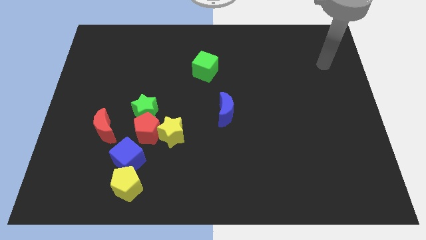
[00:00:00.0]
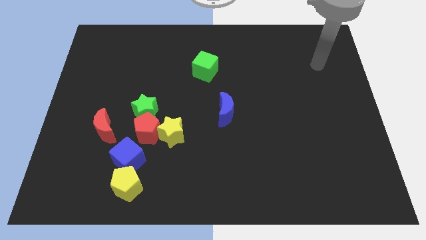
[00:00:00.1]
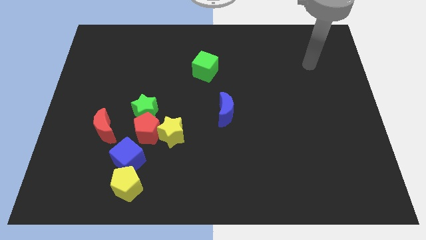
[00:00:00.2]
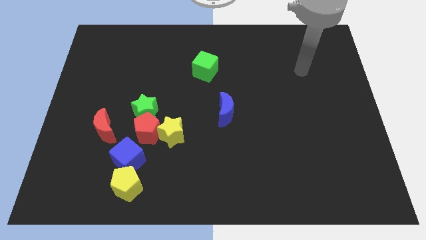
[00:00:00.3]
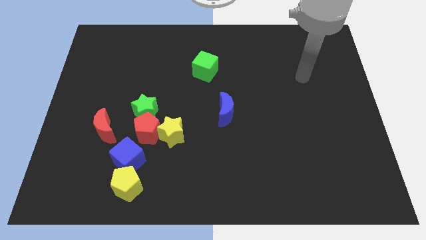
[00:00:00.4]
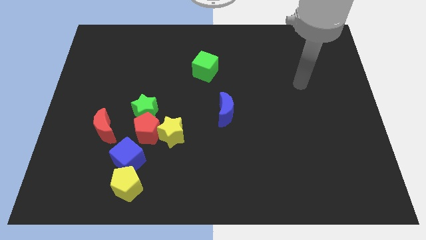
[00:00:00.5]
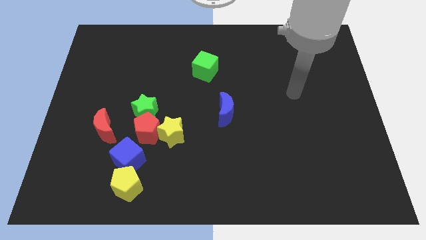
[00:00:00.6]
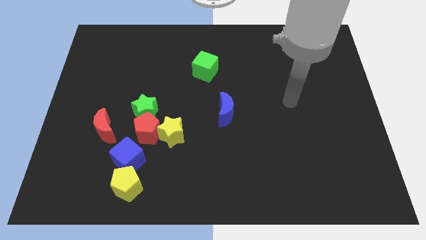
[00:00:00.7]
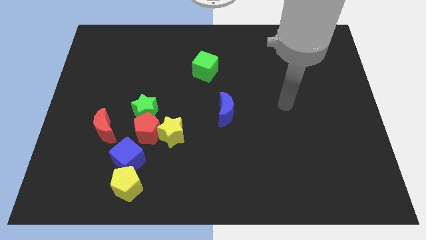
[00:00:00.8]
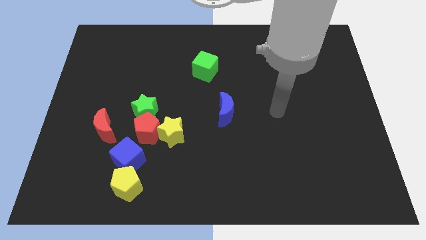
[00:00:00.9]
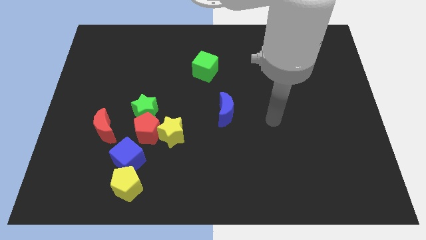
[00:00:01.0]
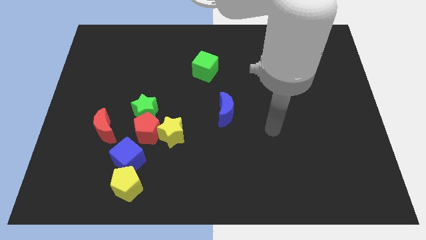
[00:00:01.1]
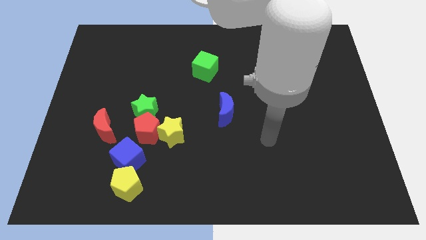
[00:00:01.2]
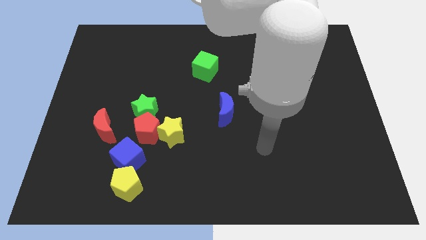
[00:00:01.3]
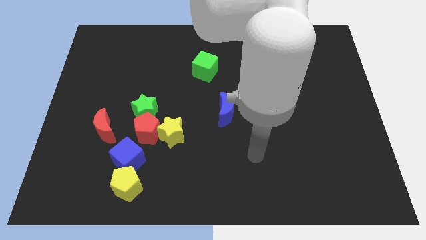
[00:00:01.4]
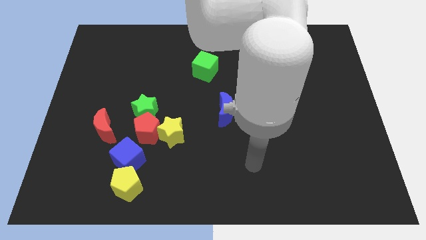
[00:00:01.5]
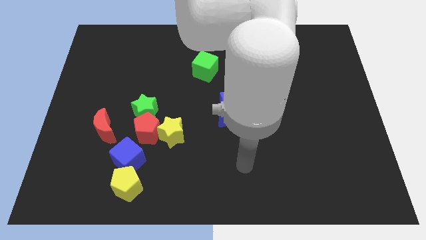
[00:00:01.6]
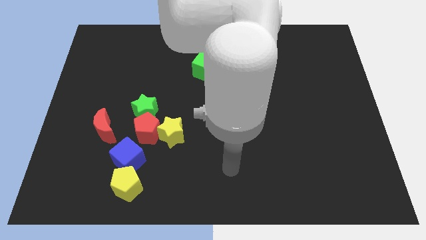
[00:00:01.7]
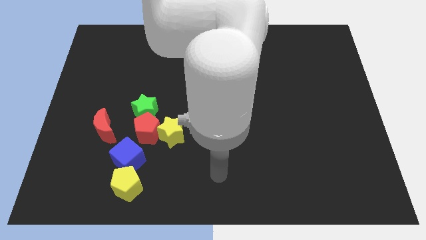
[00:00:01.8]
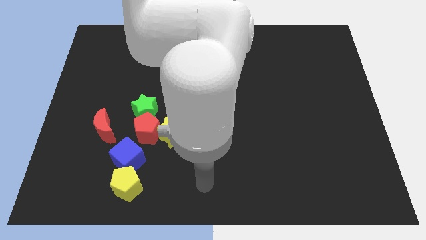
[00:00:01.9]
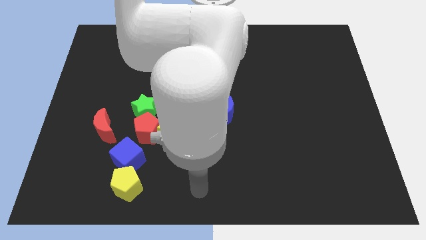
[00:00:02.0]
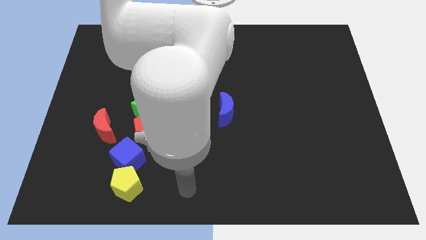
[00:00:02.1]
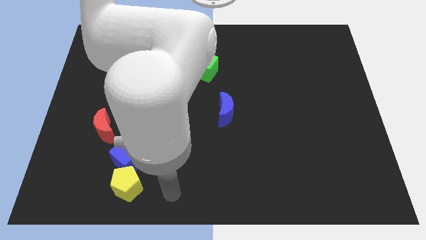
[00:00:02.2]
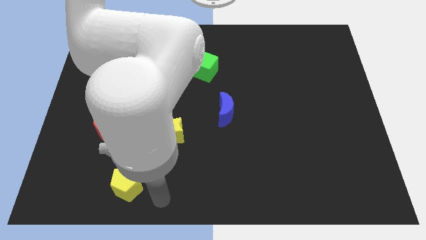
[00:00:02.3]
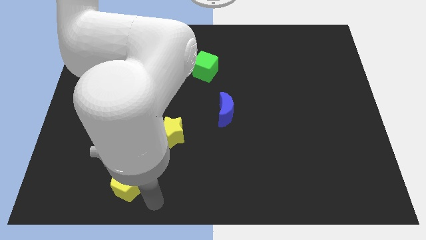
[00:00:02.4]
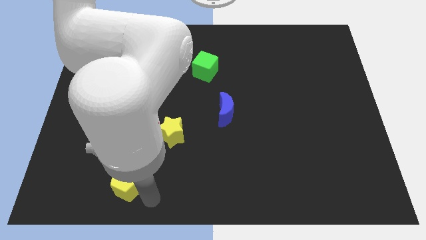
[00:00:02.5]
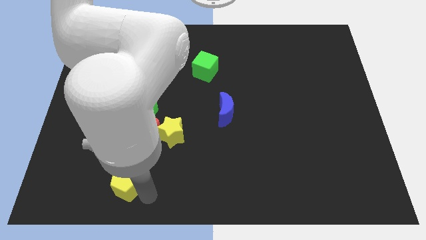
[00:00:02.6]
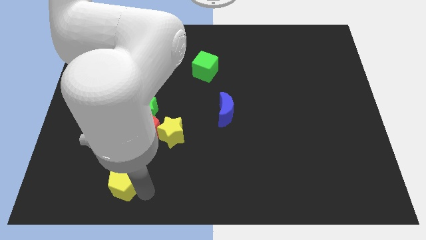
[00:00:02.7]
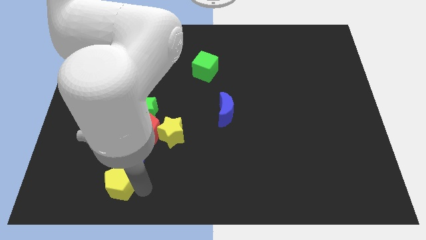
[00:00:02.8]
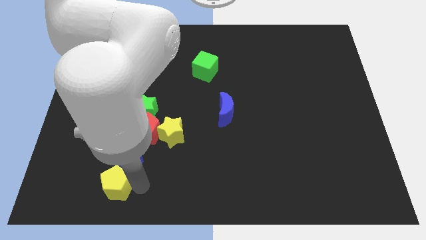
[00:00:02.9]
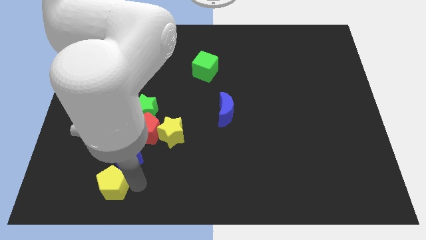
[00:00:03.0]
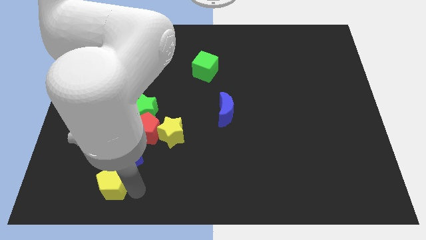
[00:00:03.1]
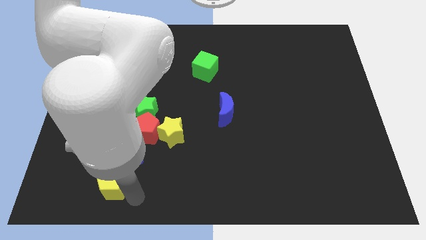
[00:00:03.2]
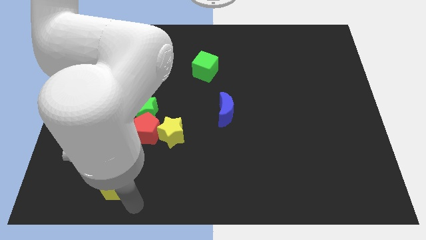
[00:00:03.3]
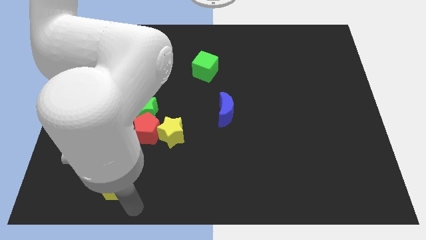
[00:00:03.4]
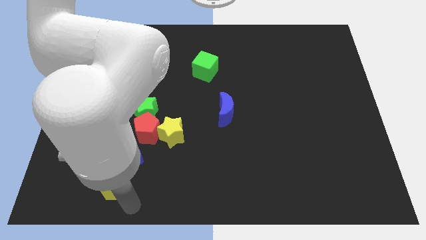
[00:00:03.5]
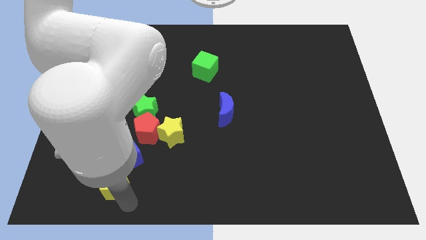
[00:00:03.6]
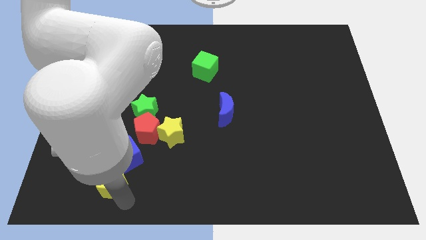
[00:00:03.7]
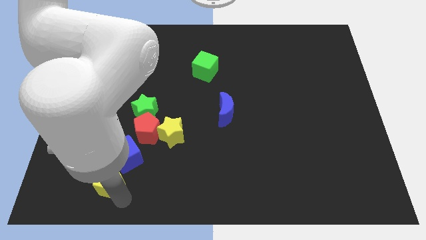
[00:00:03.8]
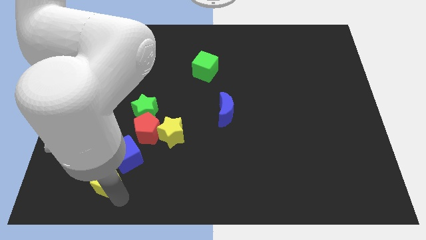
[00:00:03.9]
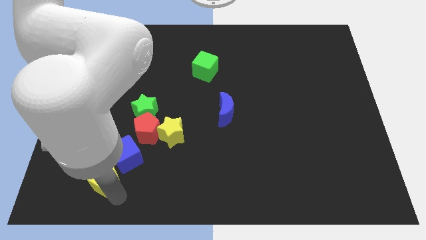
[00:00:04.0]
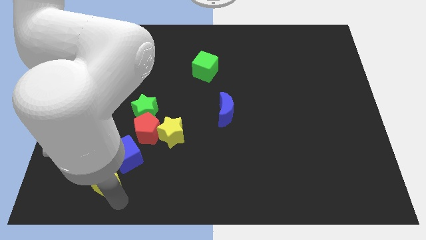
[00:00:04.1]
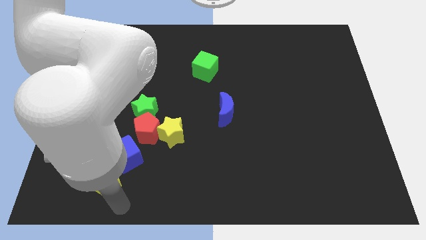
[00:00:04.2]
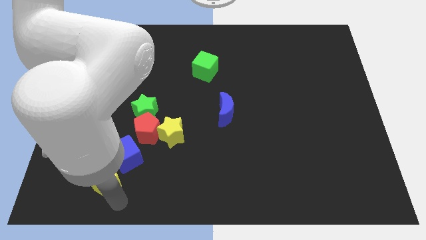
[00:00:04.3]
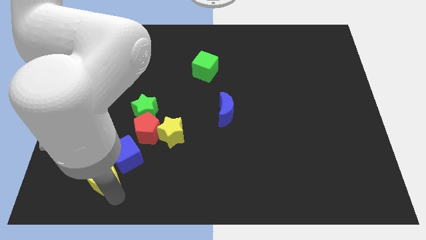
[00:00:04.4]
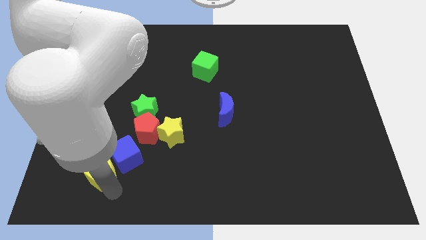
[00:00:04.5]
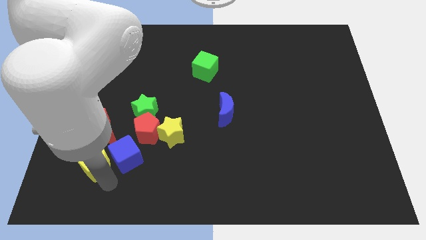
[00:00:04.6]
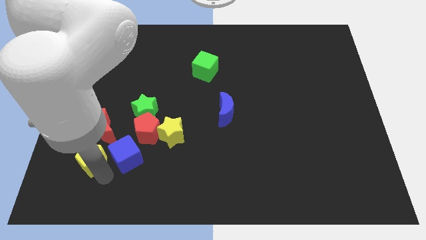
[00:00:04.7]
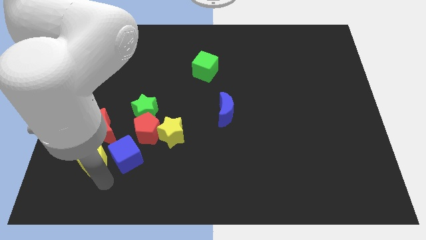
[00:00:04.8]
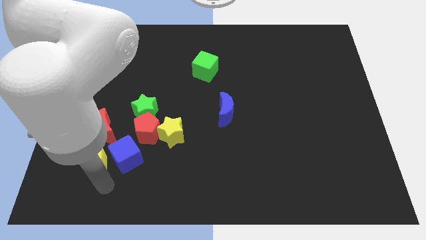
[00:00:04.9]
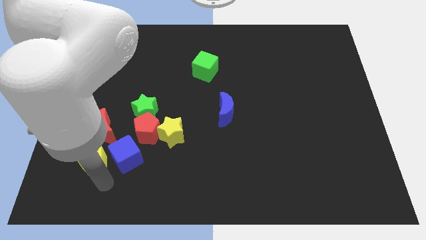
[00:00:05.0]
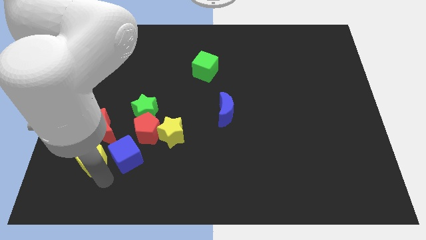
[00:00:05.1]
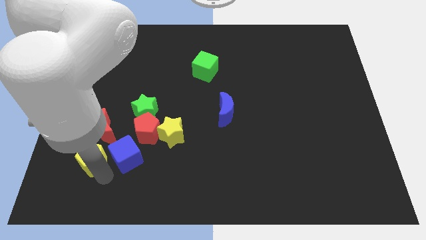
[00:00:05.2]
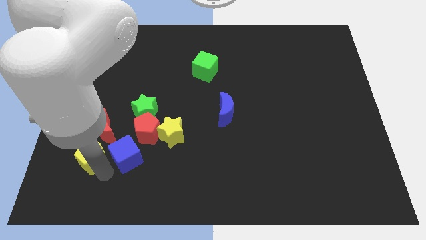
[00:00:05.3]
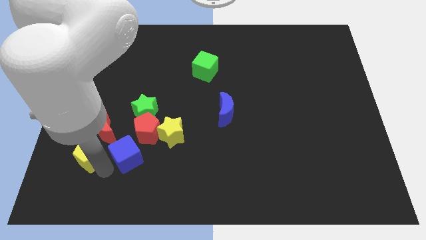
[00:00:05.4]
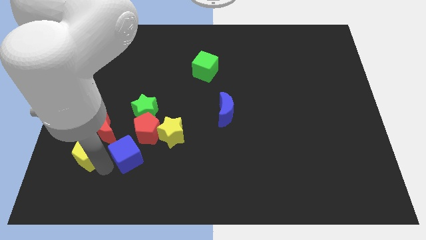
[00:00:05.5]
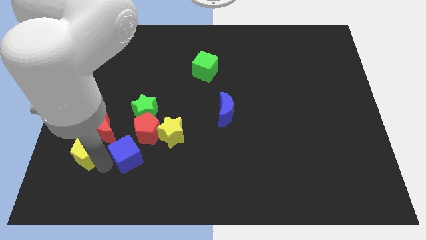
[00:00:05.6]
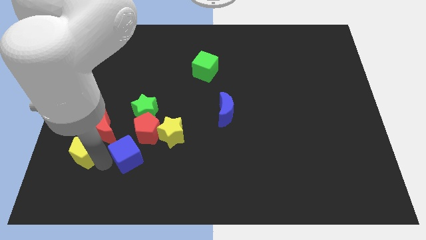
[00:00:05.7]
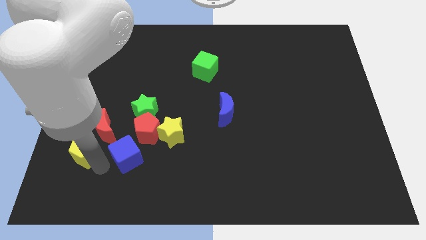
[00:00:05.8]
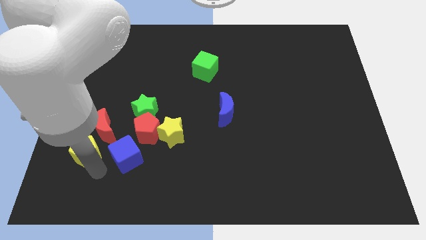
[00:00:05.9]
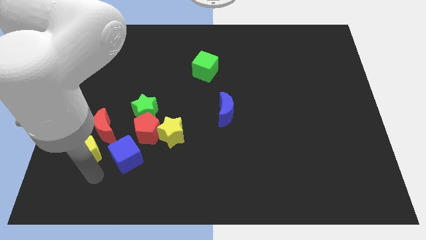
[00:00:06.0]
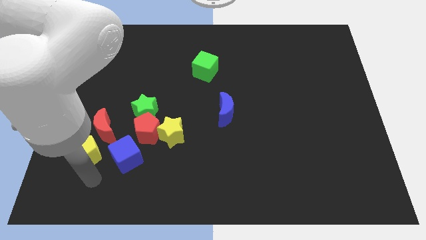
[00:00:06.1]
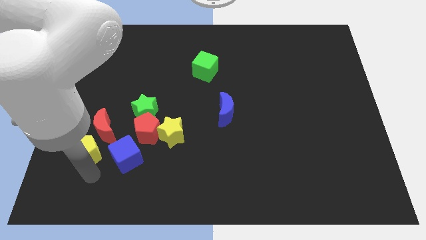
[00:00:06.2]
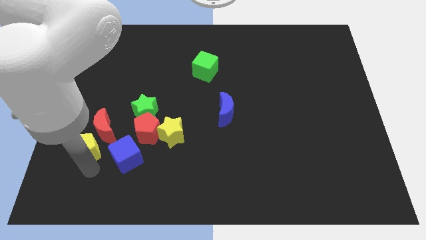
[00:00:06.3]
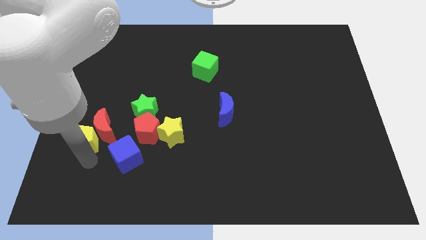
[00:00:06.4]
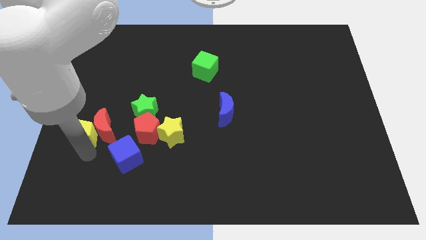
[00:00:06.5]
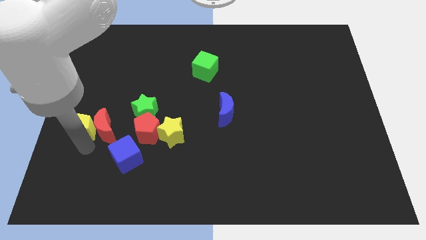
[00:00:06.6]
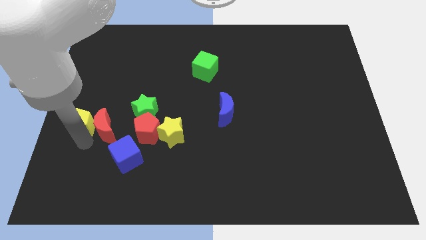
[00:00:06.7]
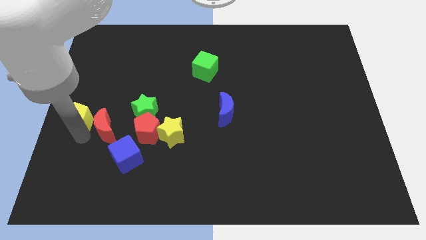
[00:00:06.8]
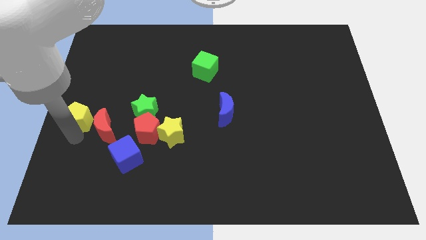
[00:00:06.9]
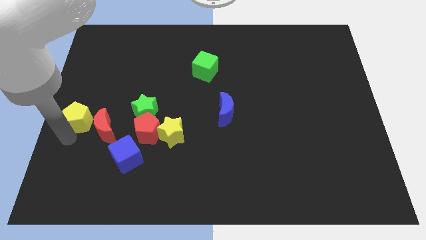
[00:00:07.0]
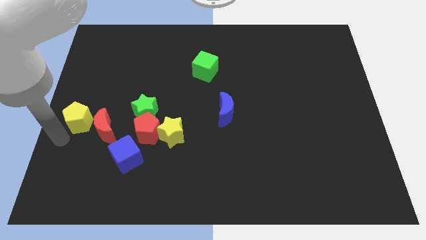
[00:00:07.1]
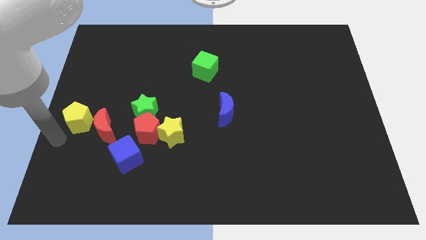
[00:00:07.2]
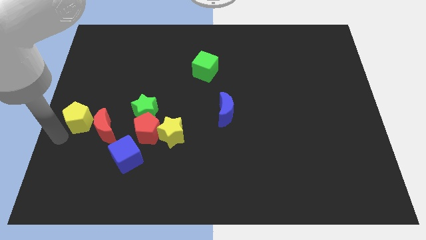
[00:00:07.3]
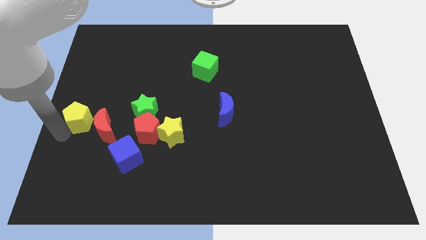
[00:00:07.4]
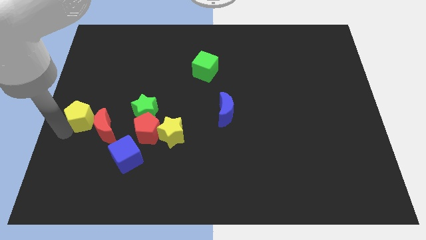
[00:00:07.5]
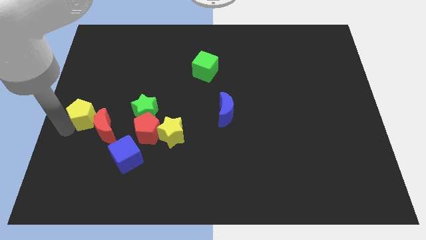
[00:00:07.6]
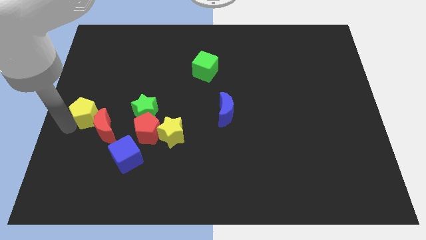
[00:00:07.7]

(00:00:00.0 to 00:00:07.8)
move the yellow pentagon to the top of the red moon
